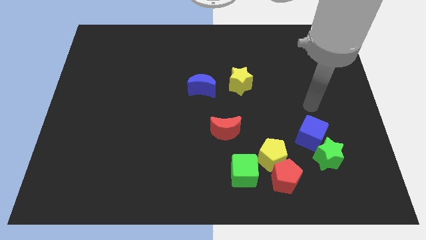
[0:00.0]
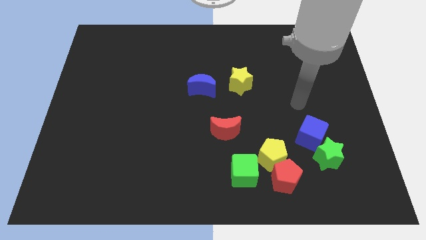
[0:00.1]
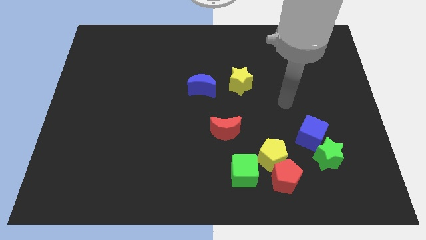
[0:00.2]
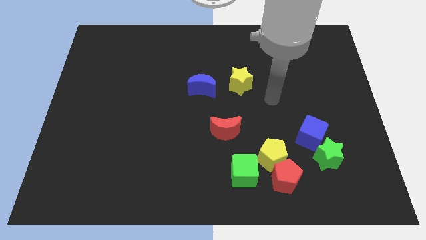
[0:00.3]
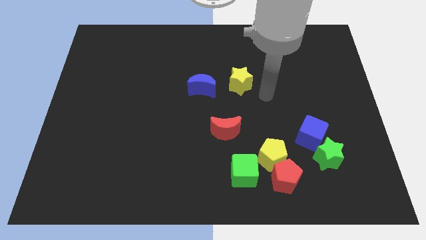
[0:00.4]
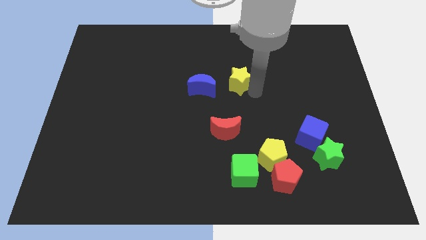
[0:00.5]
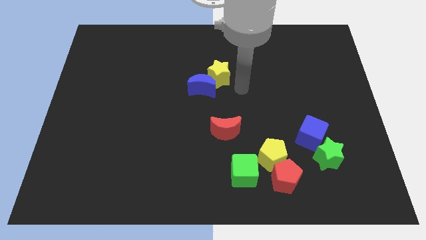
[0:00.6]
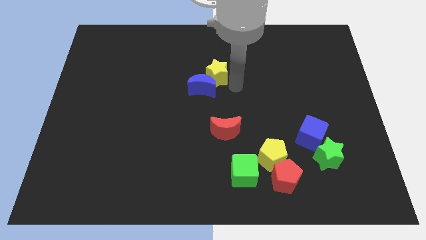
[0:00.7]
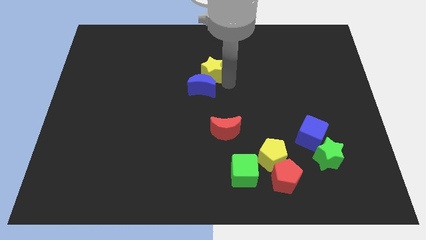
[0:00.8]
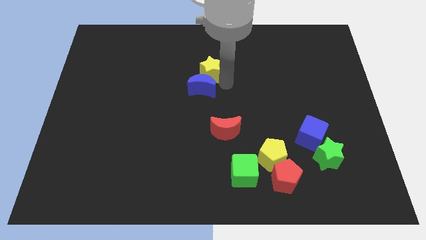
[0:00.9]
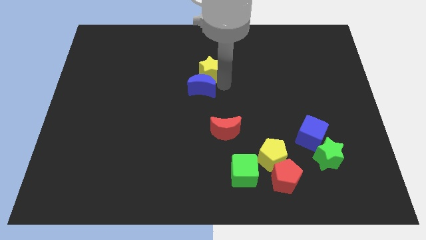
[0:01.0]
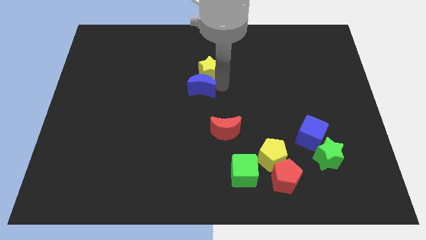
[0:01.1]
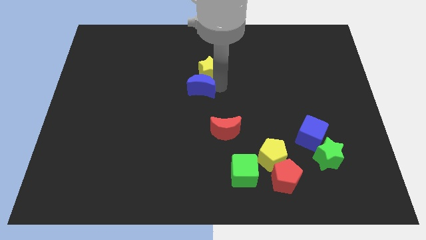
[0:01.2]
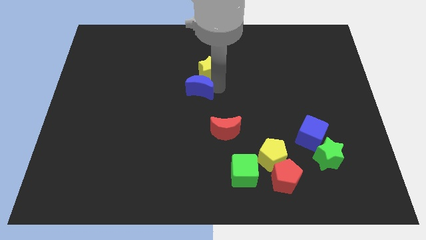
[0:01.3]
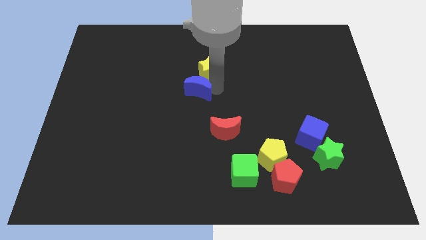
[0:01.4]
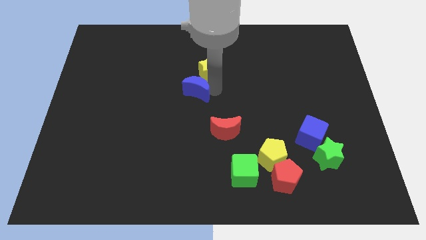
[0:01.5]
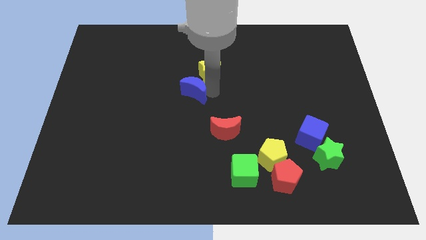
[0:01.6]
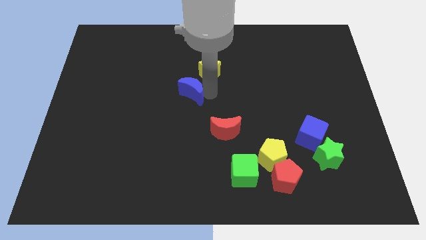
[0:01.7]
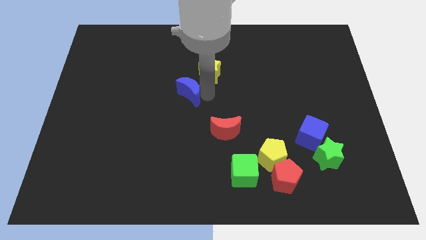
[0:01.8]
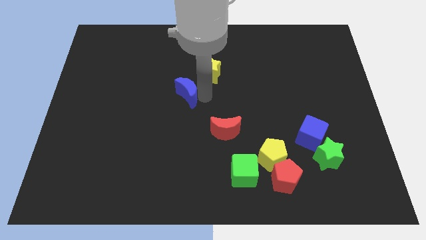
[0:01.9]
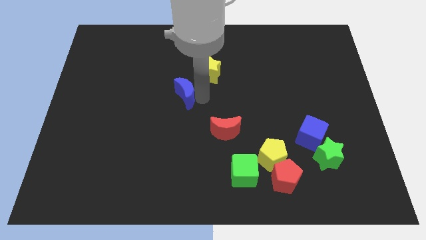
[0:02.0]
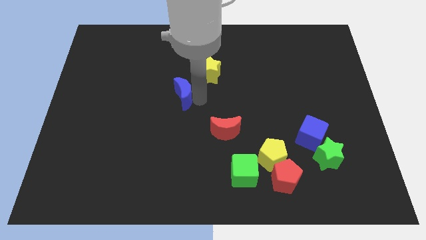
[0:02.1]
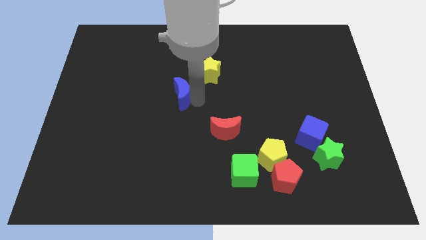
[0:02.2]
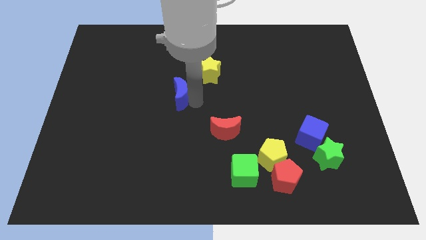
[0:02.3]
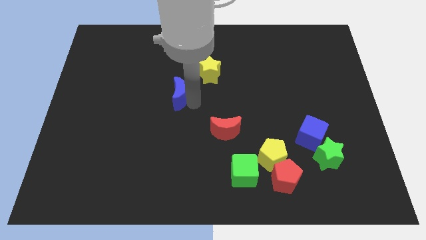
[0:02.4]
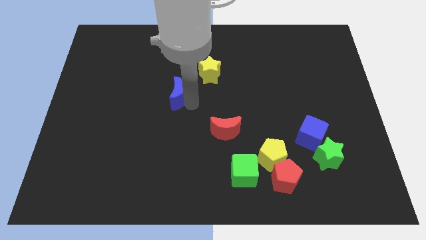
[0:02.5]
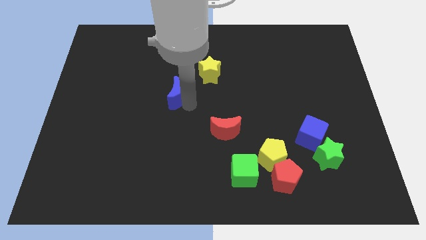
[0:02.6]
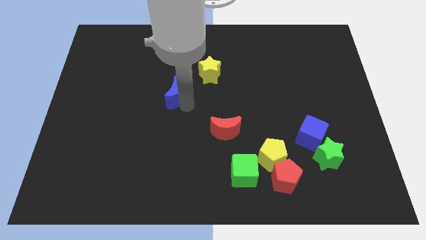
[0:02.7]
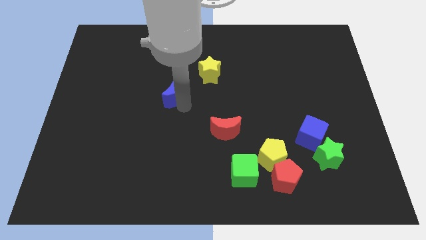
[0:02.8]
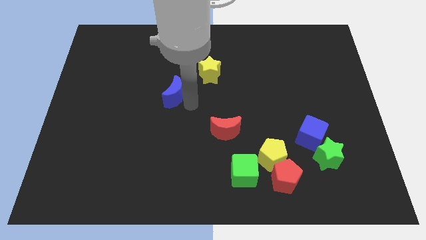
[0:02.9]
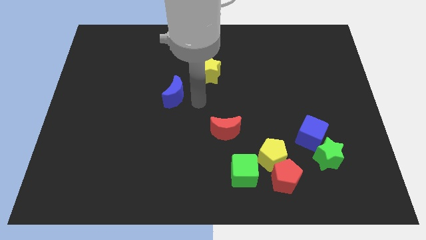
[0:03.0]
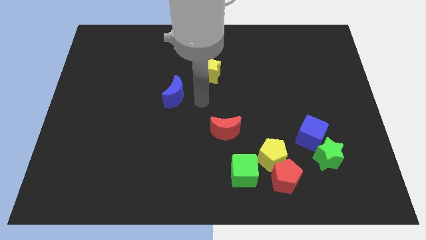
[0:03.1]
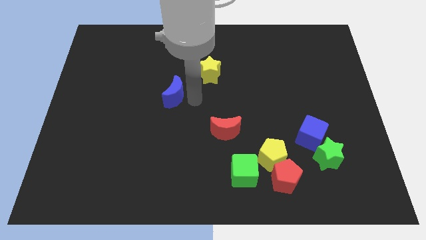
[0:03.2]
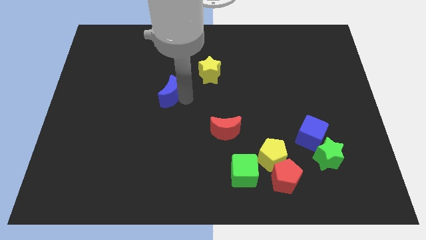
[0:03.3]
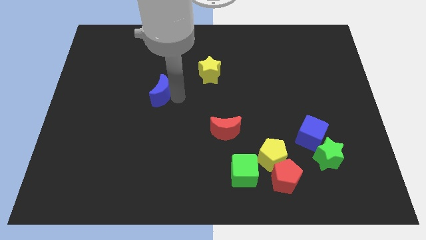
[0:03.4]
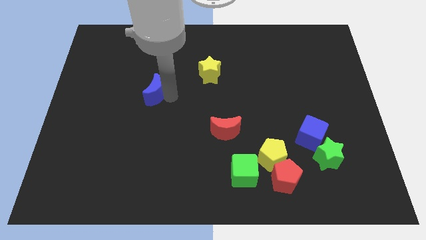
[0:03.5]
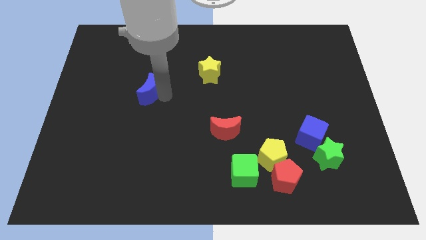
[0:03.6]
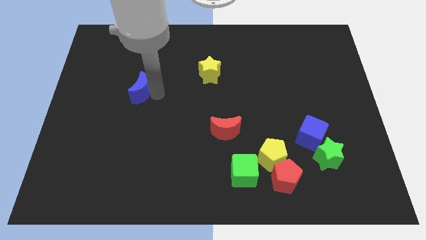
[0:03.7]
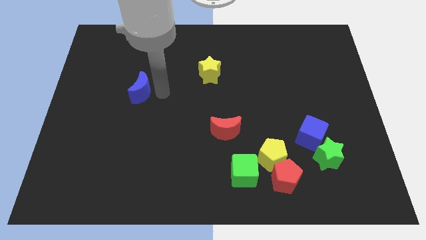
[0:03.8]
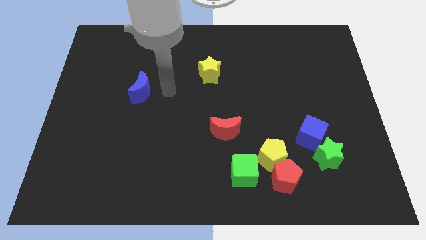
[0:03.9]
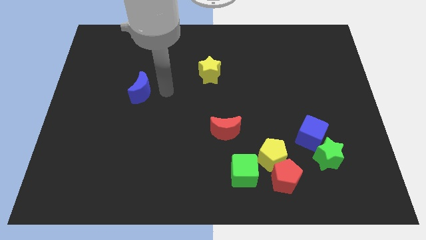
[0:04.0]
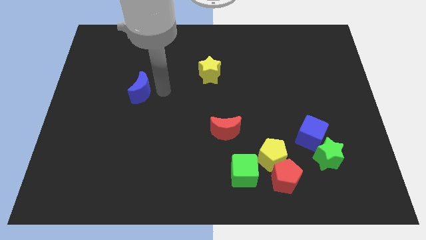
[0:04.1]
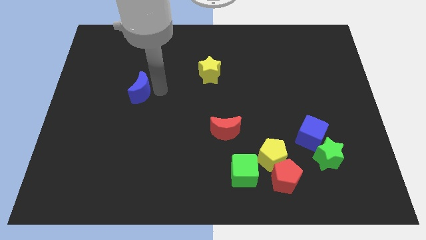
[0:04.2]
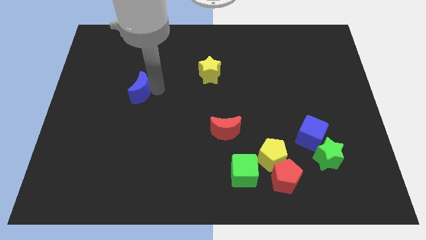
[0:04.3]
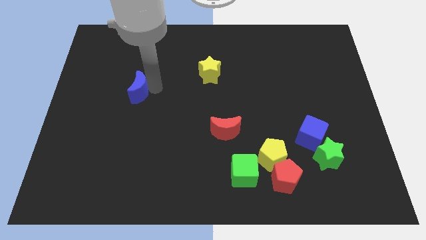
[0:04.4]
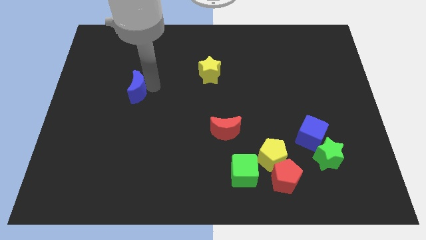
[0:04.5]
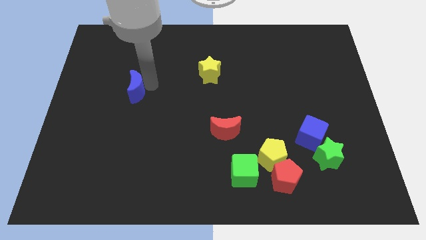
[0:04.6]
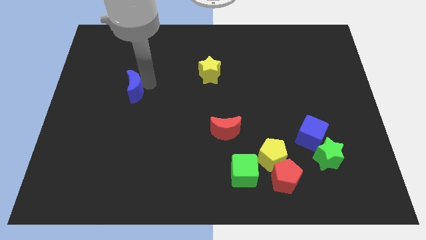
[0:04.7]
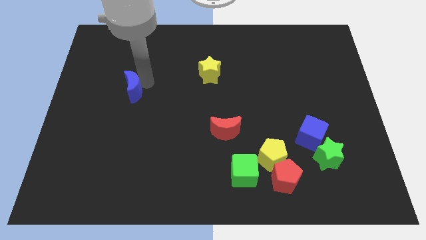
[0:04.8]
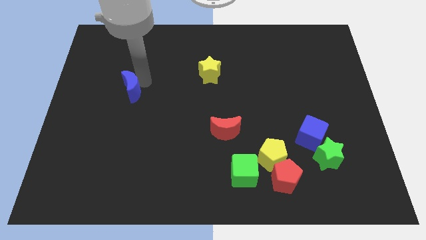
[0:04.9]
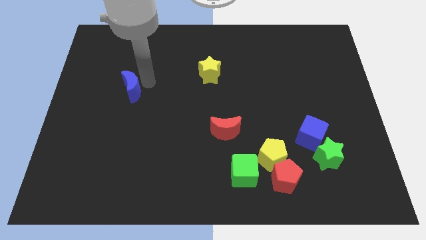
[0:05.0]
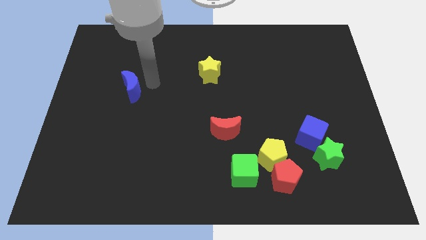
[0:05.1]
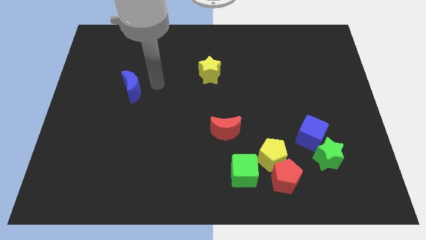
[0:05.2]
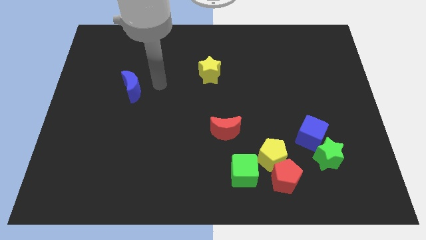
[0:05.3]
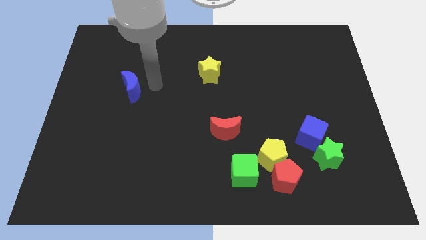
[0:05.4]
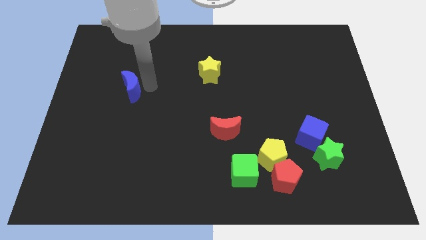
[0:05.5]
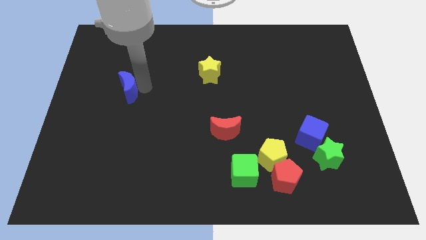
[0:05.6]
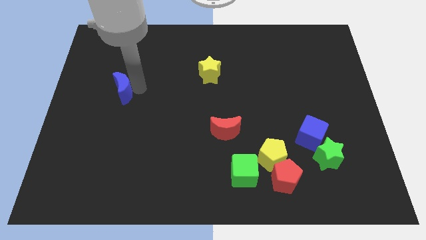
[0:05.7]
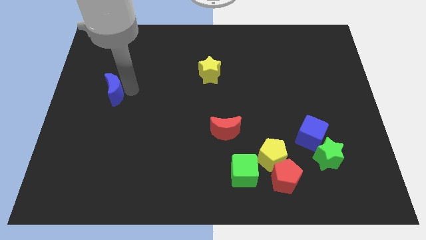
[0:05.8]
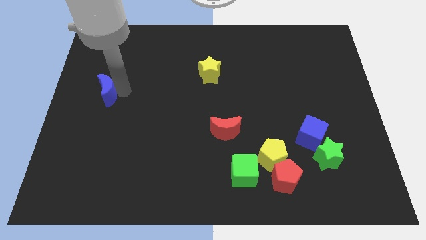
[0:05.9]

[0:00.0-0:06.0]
move the blue moon to the left side
